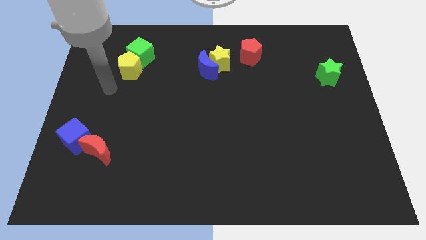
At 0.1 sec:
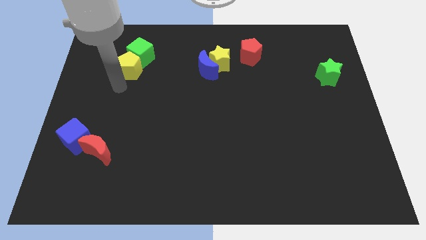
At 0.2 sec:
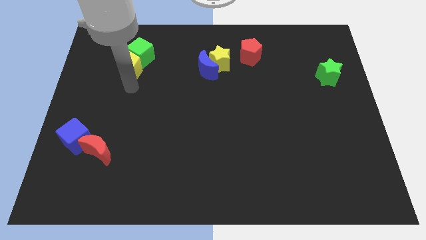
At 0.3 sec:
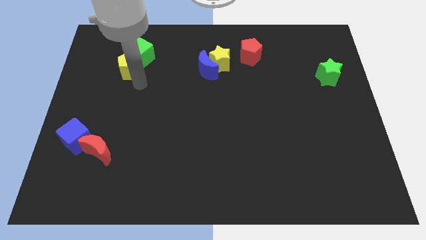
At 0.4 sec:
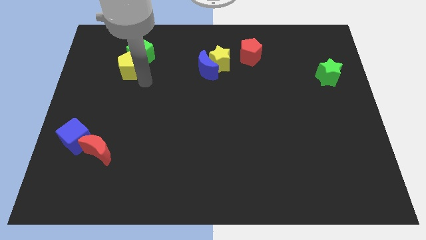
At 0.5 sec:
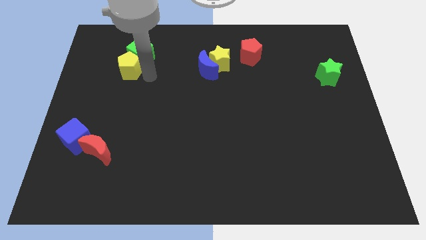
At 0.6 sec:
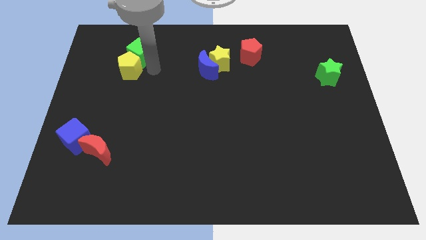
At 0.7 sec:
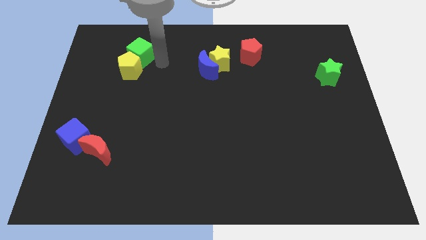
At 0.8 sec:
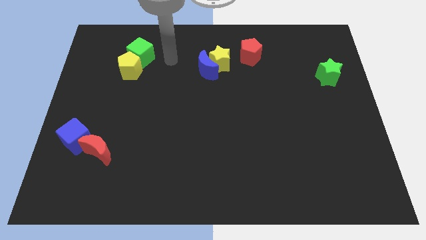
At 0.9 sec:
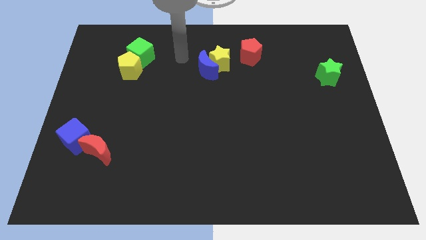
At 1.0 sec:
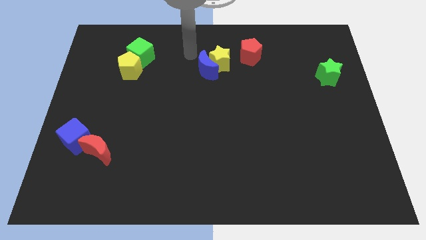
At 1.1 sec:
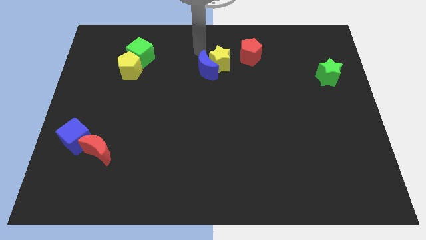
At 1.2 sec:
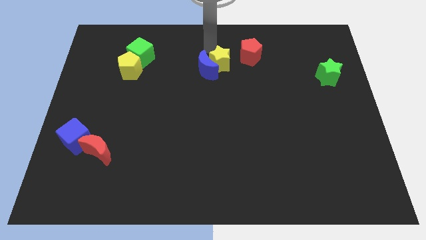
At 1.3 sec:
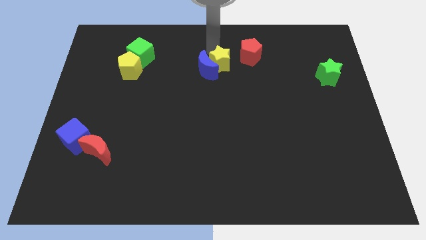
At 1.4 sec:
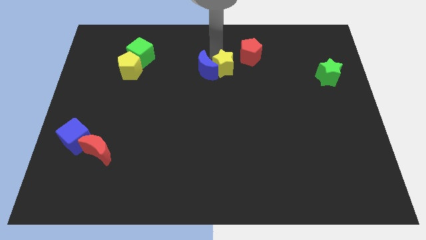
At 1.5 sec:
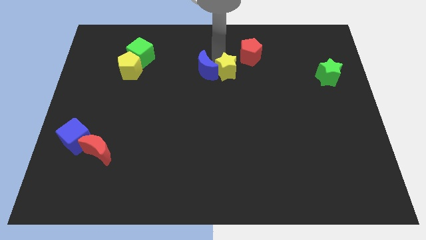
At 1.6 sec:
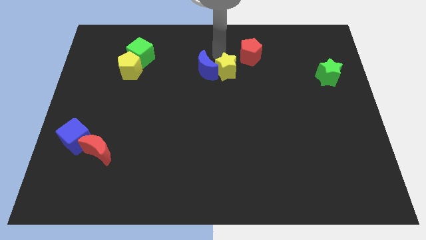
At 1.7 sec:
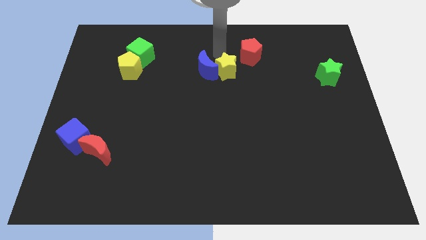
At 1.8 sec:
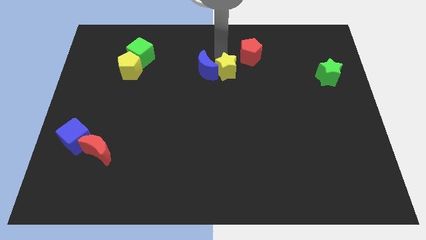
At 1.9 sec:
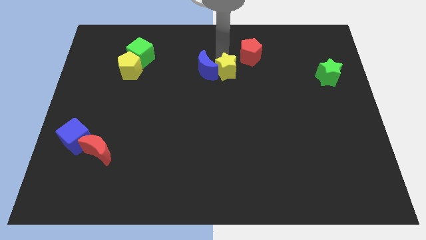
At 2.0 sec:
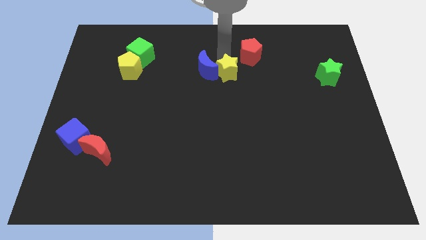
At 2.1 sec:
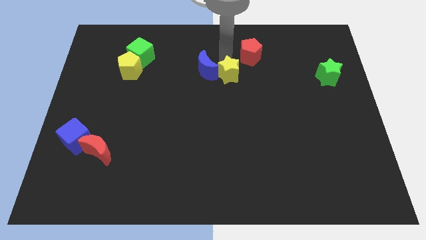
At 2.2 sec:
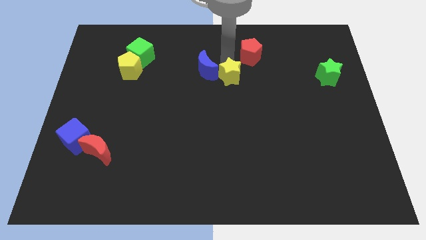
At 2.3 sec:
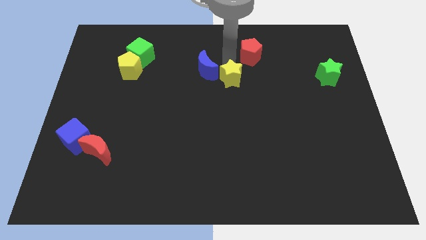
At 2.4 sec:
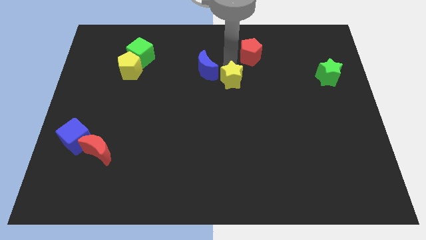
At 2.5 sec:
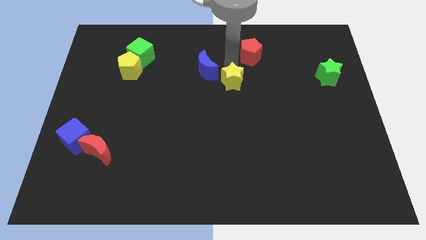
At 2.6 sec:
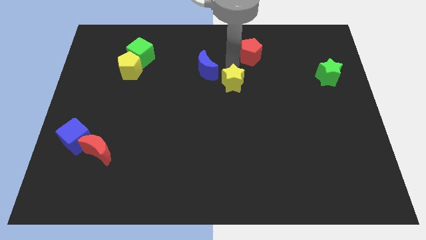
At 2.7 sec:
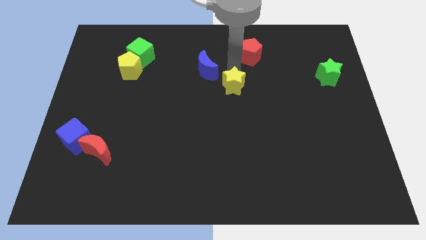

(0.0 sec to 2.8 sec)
slightly slide the yellow star downwards

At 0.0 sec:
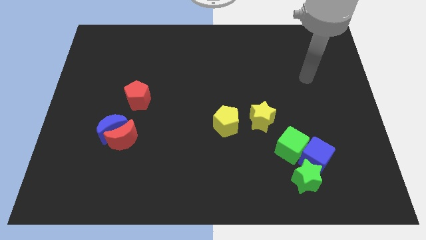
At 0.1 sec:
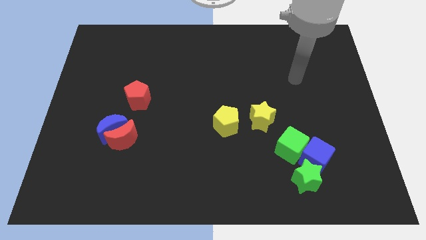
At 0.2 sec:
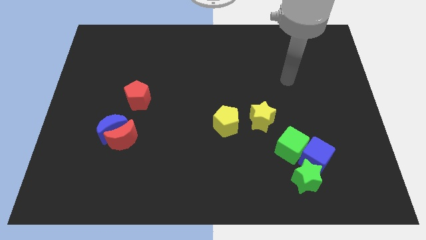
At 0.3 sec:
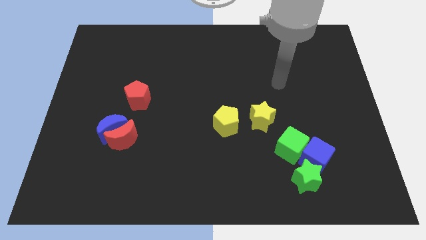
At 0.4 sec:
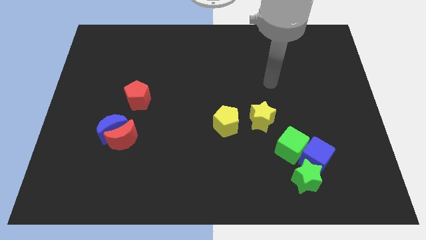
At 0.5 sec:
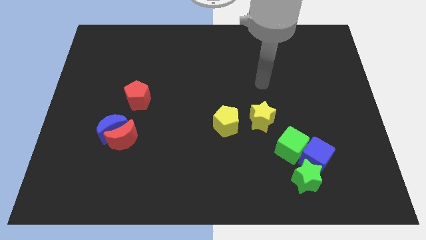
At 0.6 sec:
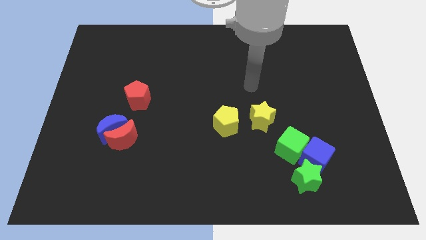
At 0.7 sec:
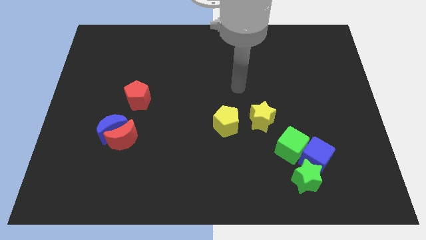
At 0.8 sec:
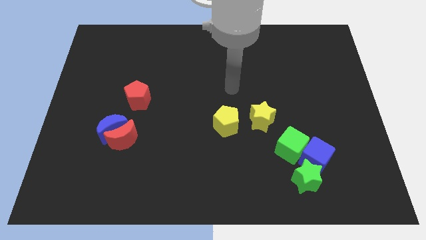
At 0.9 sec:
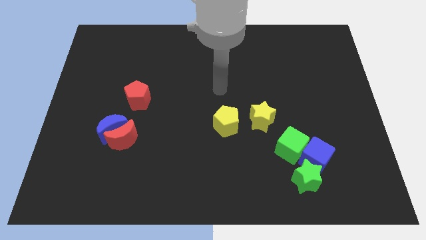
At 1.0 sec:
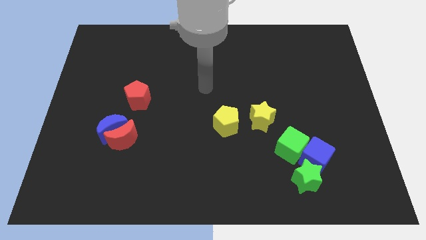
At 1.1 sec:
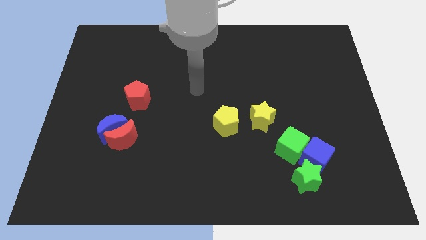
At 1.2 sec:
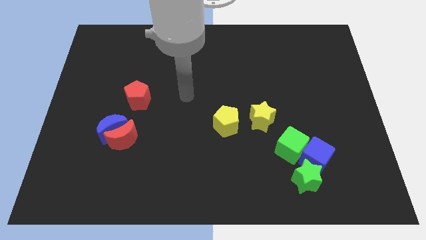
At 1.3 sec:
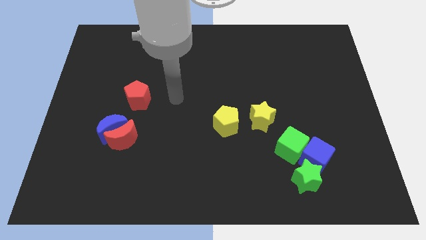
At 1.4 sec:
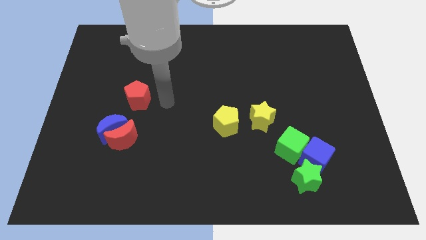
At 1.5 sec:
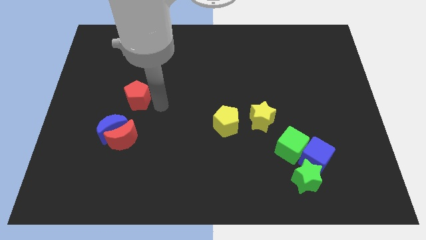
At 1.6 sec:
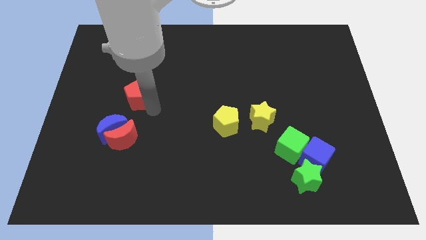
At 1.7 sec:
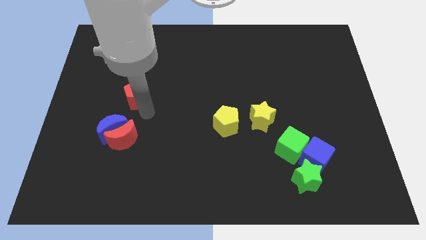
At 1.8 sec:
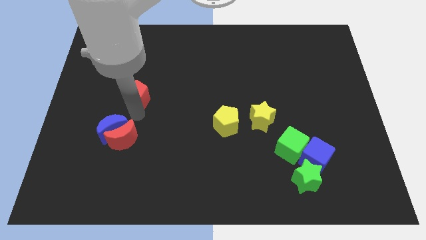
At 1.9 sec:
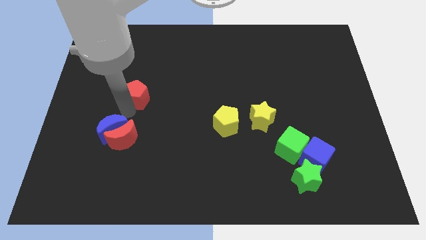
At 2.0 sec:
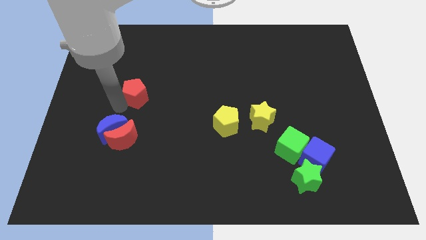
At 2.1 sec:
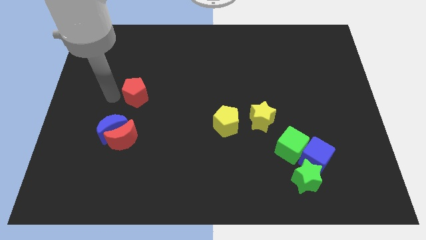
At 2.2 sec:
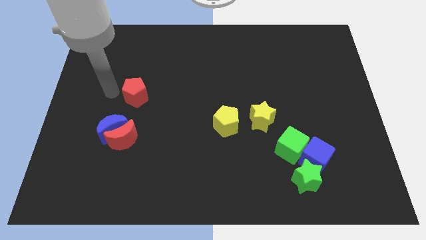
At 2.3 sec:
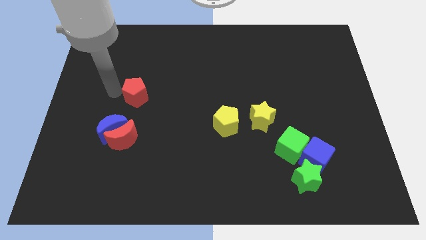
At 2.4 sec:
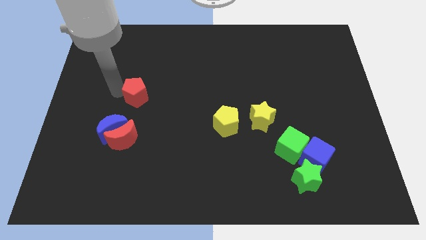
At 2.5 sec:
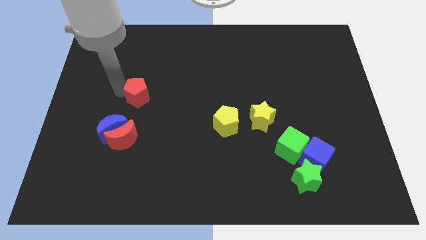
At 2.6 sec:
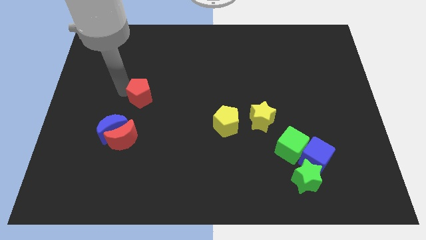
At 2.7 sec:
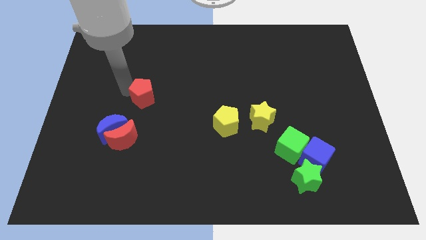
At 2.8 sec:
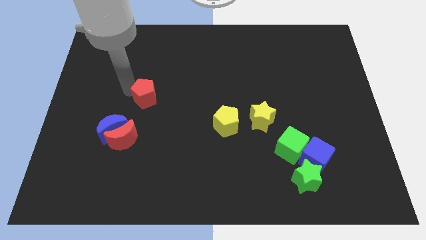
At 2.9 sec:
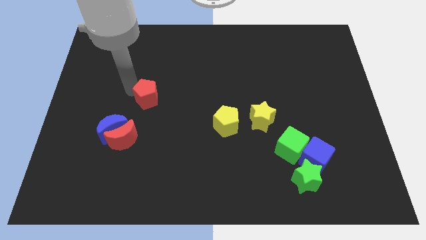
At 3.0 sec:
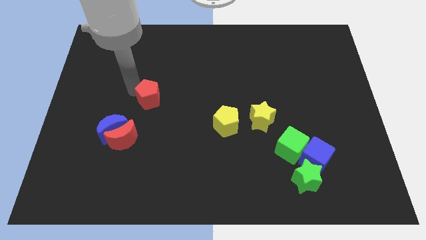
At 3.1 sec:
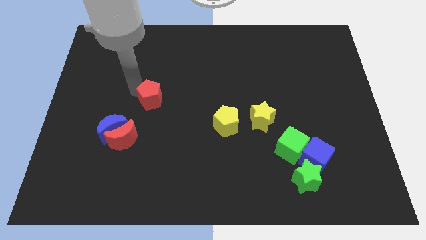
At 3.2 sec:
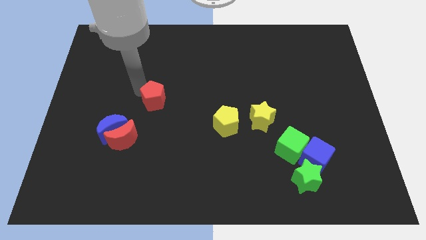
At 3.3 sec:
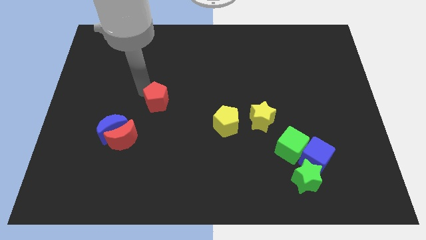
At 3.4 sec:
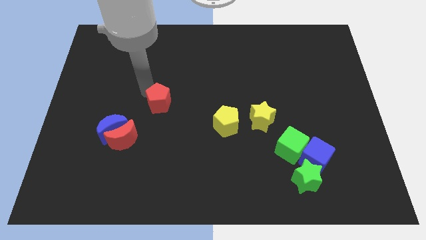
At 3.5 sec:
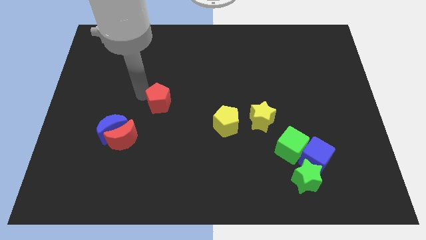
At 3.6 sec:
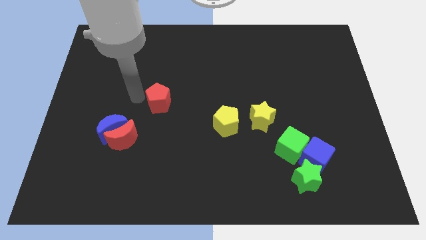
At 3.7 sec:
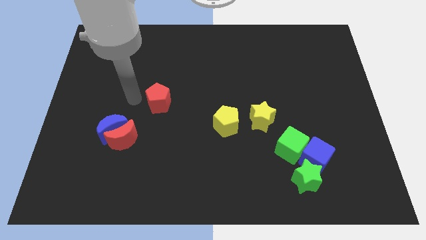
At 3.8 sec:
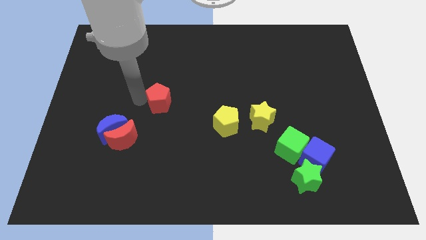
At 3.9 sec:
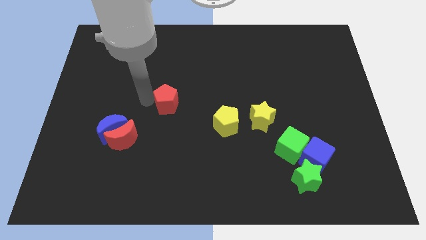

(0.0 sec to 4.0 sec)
move the red pentagon somewhat right

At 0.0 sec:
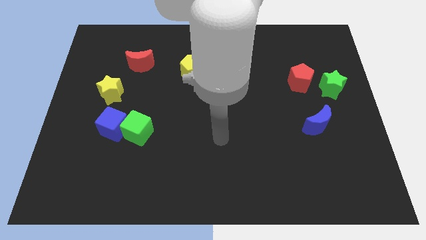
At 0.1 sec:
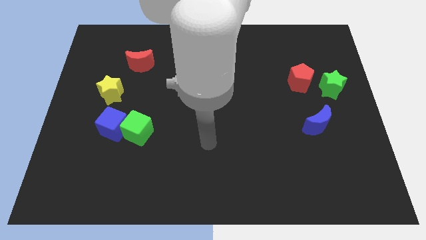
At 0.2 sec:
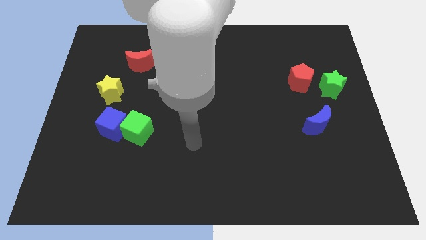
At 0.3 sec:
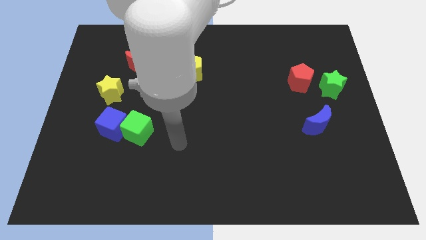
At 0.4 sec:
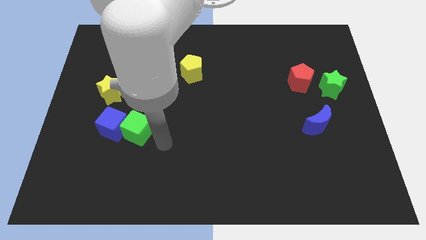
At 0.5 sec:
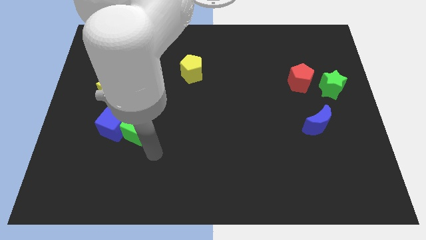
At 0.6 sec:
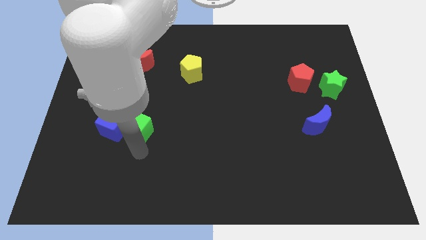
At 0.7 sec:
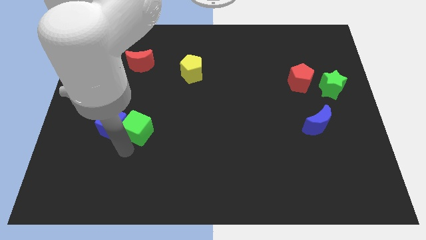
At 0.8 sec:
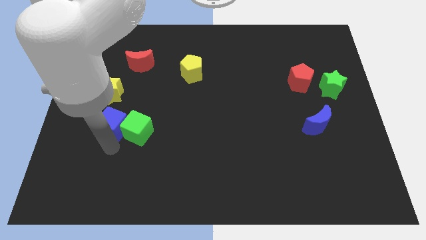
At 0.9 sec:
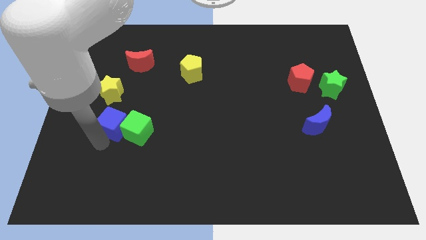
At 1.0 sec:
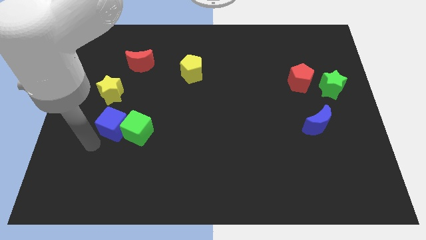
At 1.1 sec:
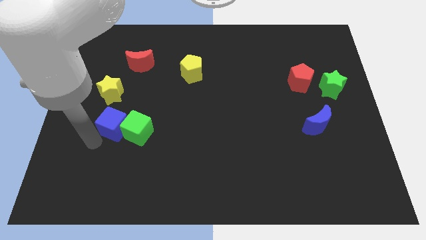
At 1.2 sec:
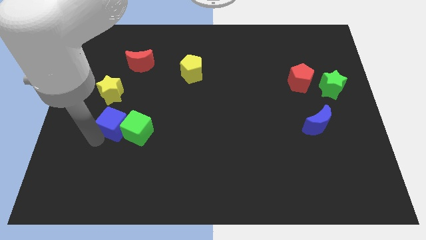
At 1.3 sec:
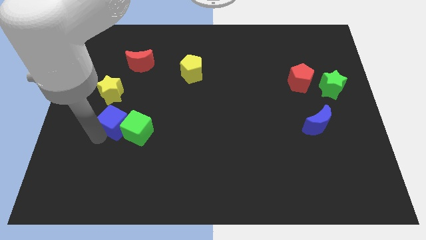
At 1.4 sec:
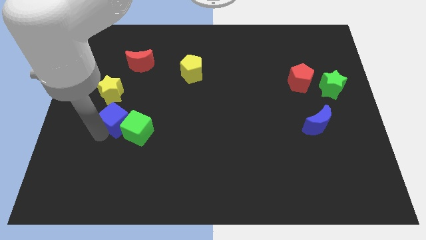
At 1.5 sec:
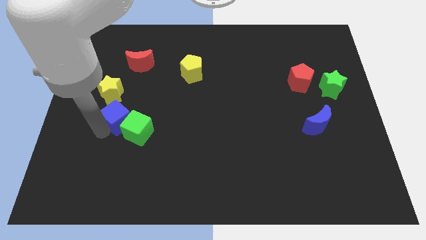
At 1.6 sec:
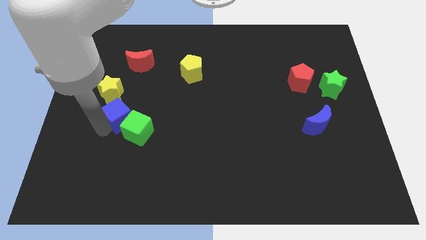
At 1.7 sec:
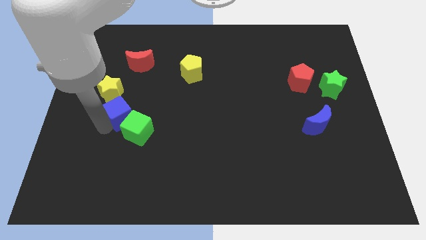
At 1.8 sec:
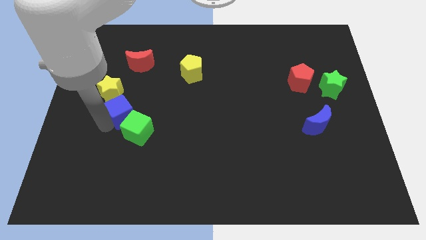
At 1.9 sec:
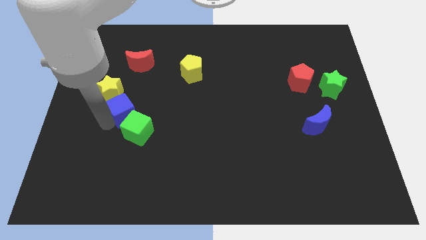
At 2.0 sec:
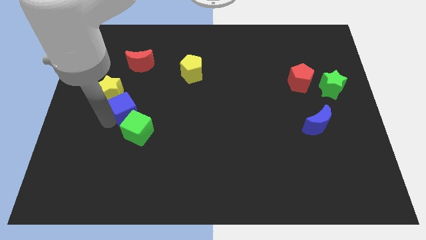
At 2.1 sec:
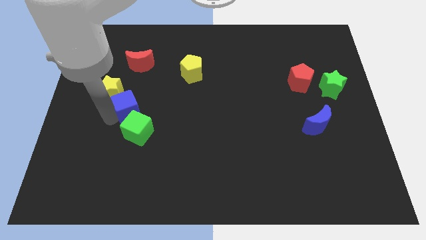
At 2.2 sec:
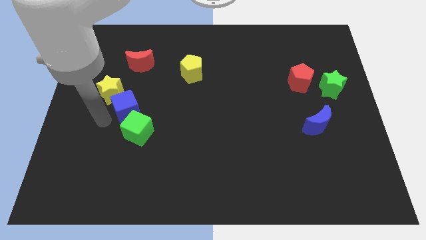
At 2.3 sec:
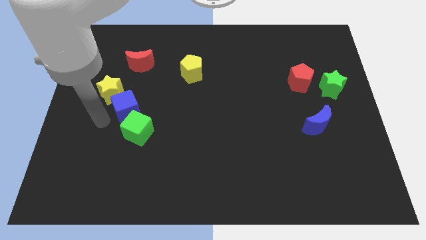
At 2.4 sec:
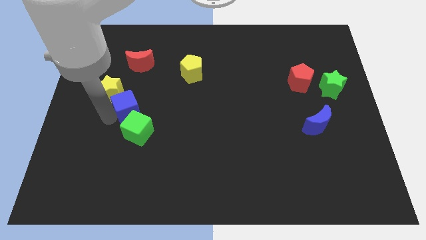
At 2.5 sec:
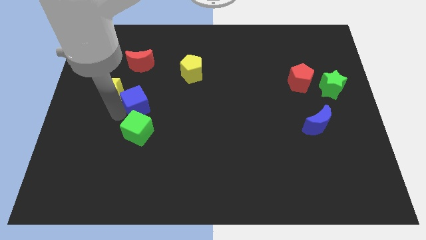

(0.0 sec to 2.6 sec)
slightly slide the blue cube diagonally upwards and to the right
